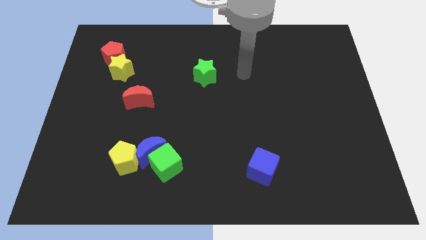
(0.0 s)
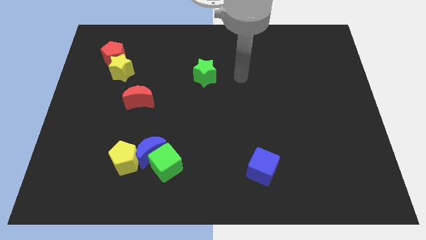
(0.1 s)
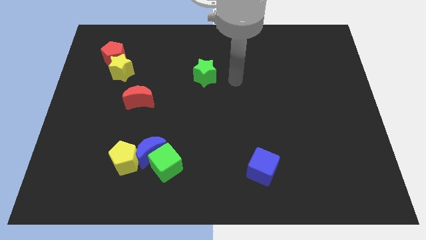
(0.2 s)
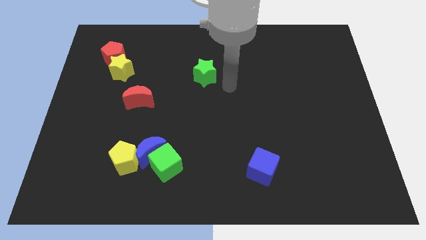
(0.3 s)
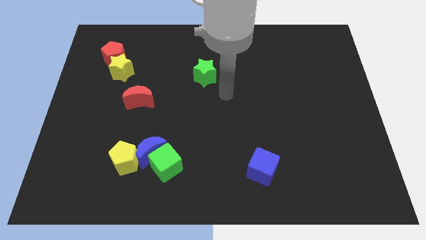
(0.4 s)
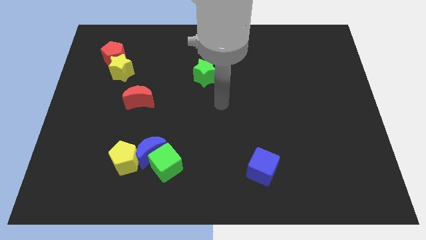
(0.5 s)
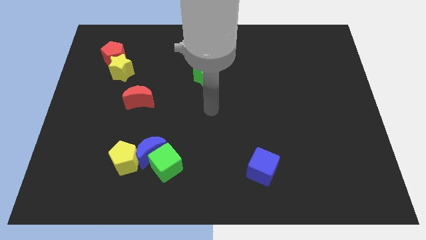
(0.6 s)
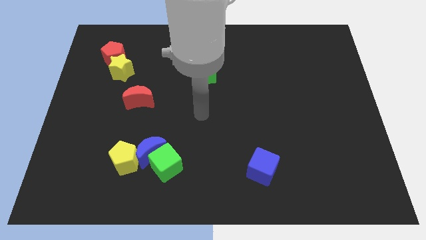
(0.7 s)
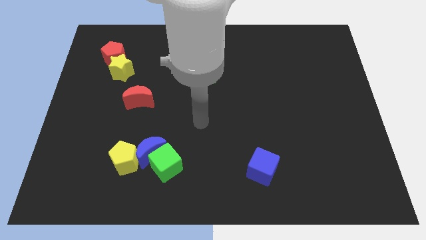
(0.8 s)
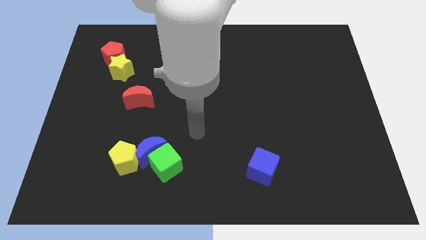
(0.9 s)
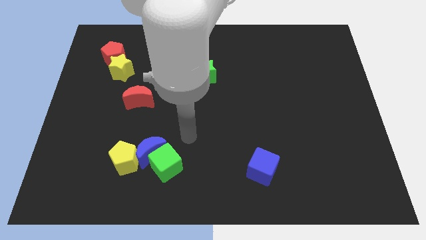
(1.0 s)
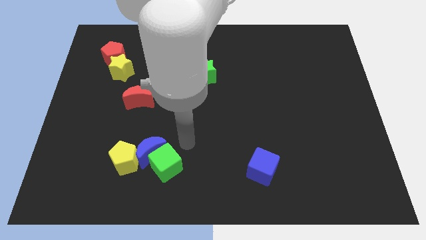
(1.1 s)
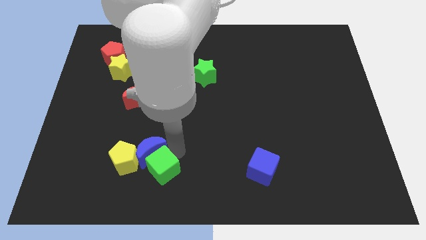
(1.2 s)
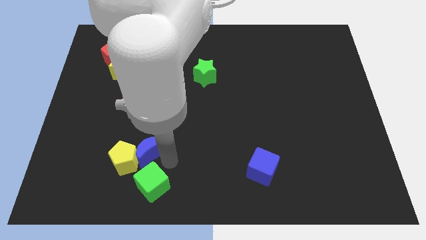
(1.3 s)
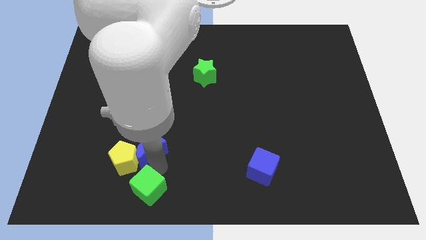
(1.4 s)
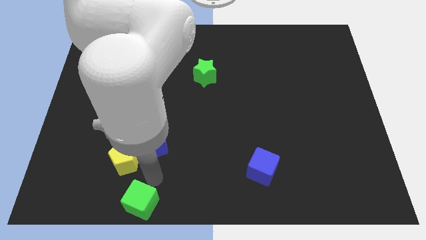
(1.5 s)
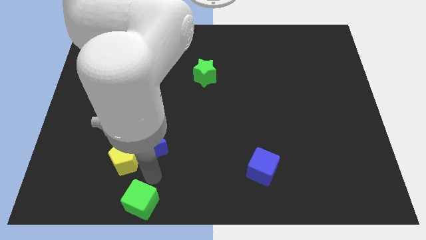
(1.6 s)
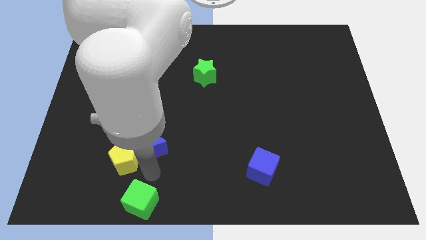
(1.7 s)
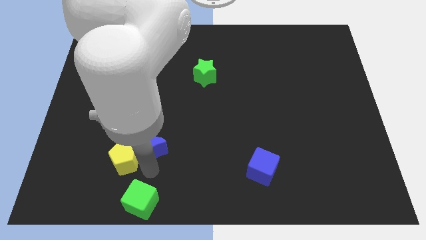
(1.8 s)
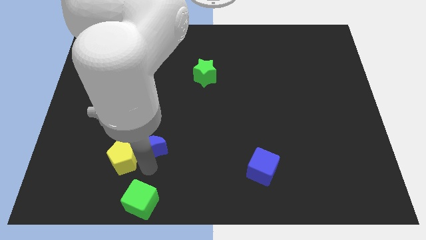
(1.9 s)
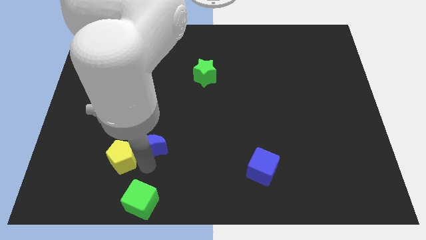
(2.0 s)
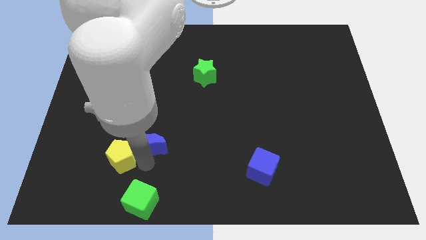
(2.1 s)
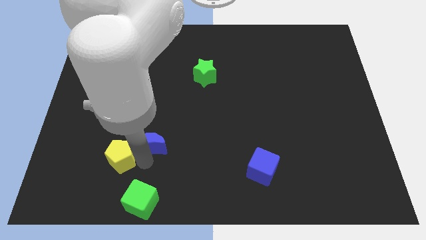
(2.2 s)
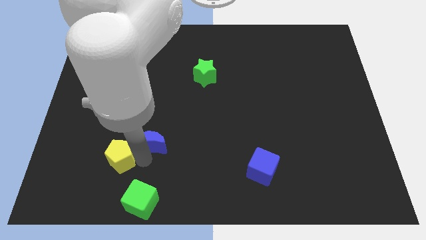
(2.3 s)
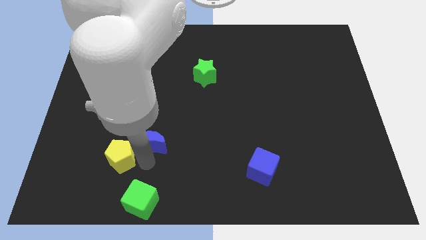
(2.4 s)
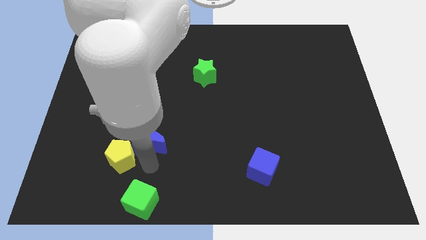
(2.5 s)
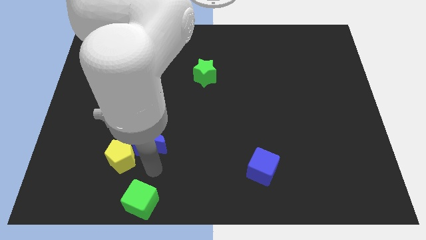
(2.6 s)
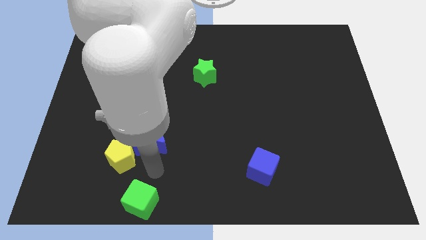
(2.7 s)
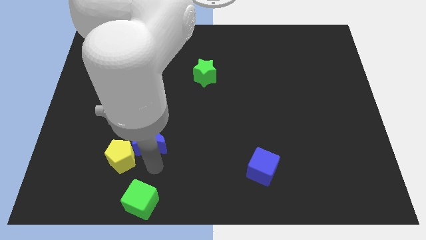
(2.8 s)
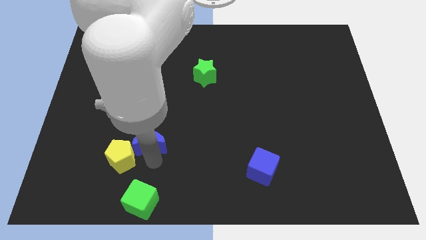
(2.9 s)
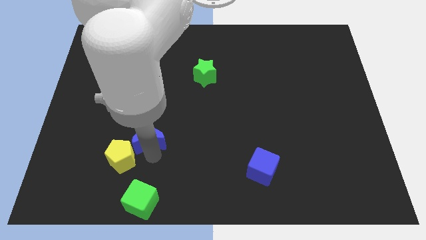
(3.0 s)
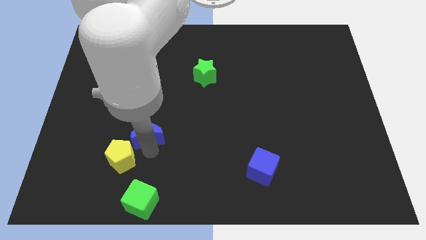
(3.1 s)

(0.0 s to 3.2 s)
pull the blue moon apart from the green cube and yellow pentagon

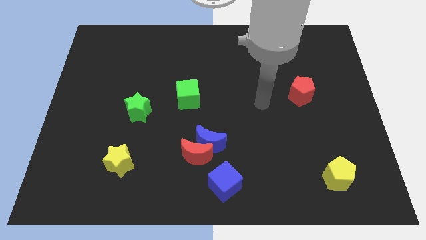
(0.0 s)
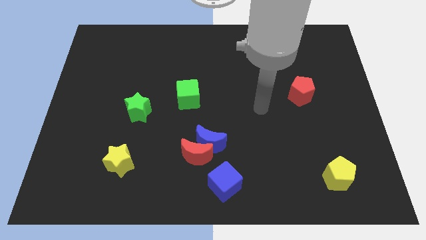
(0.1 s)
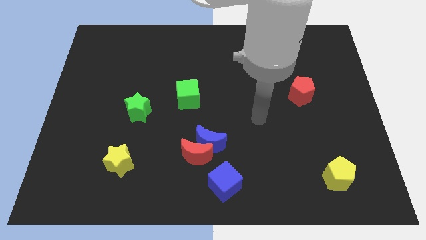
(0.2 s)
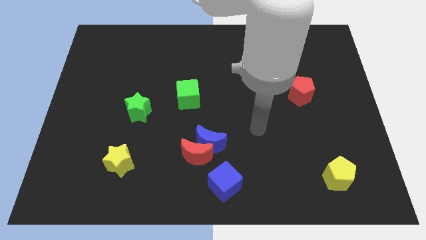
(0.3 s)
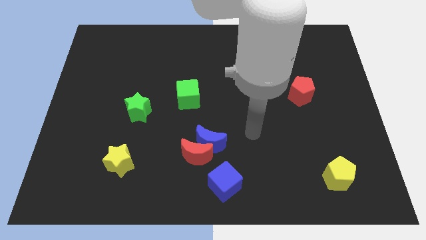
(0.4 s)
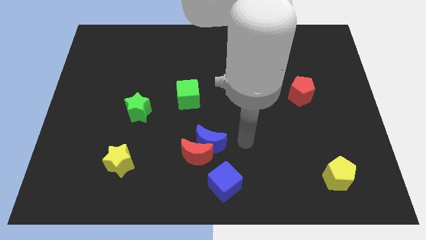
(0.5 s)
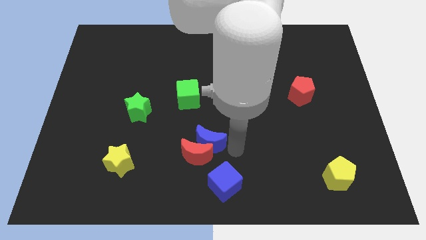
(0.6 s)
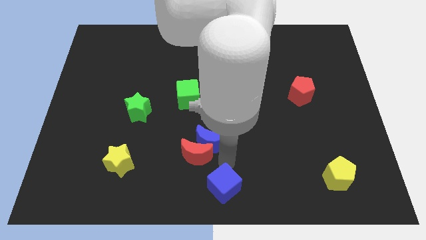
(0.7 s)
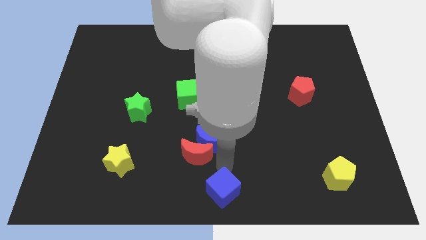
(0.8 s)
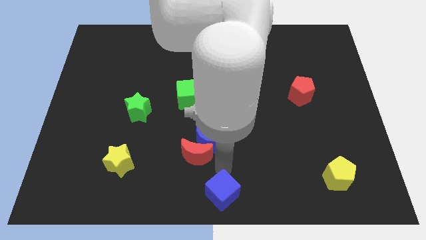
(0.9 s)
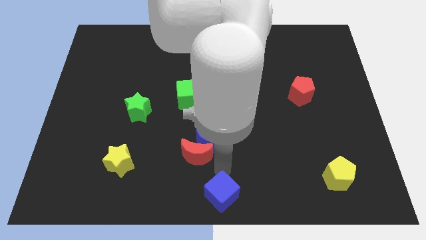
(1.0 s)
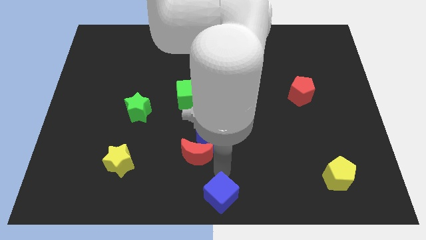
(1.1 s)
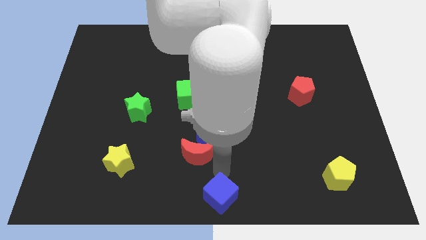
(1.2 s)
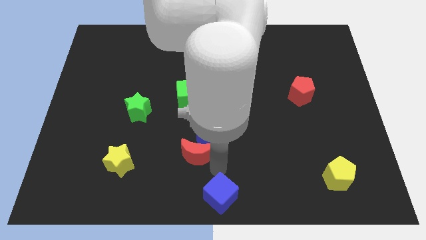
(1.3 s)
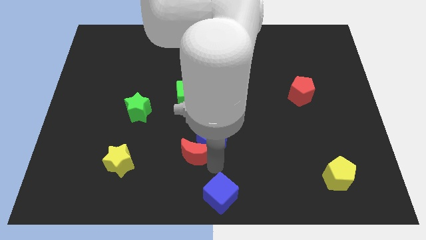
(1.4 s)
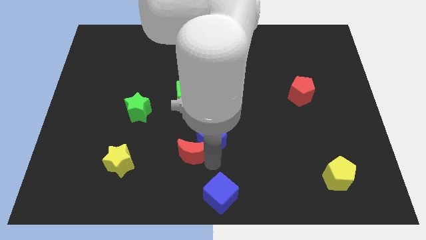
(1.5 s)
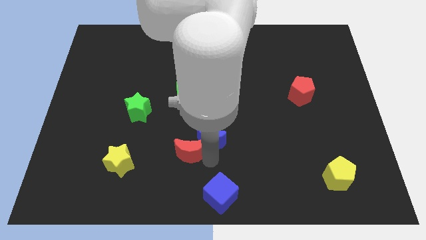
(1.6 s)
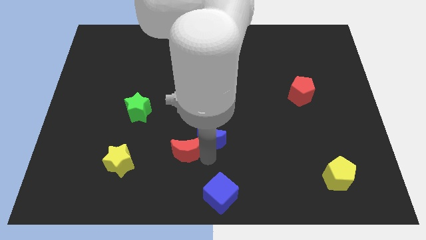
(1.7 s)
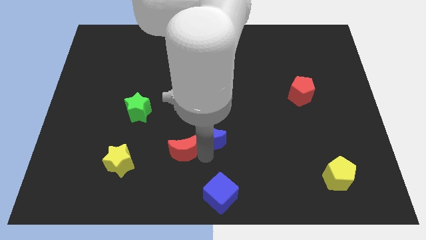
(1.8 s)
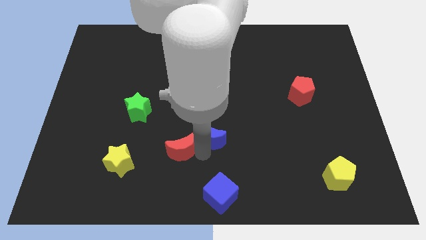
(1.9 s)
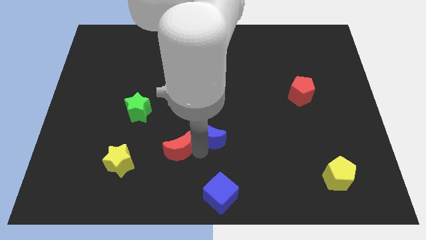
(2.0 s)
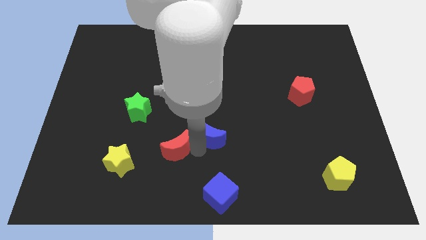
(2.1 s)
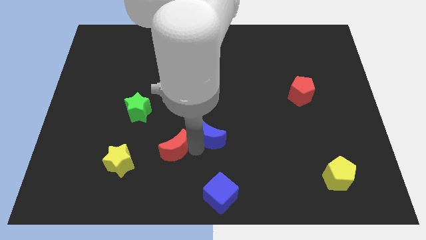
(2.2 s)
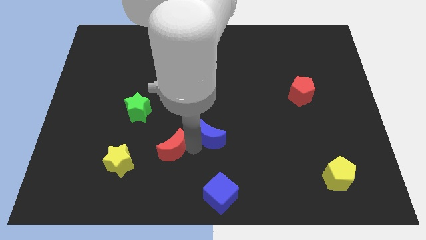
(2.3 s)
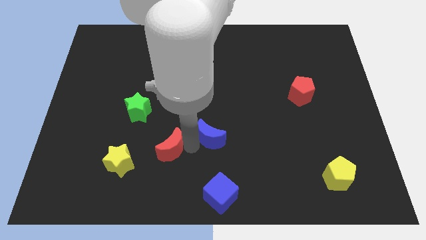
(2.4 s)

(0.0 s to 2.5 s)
pull the red moon apart from the blue moon and blue cube

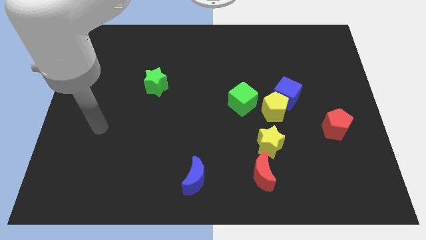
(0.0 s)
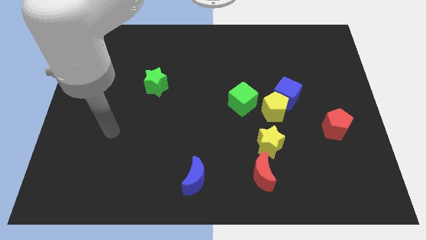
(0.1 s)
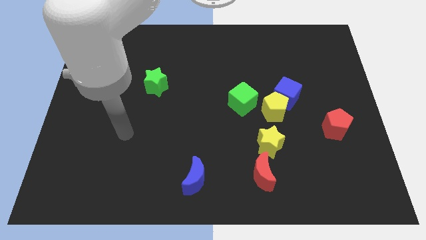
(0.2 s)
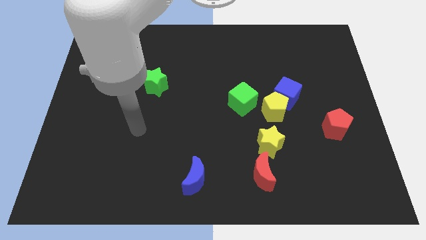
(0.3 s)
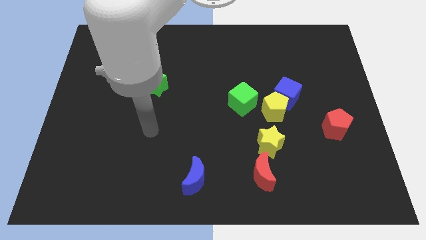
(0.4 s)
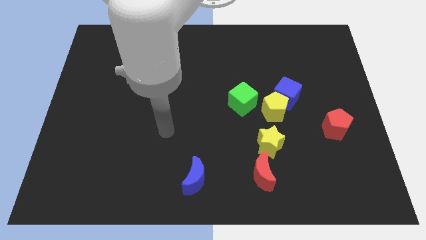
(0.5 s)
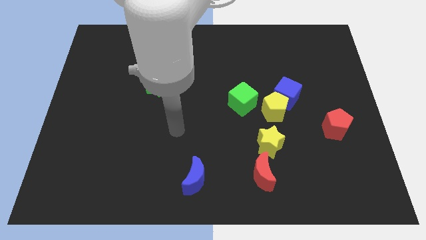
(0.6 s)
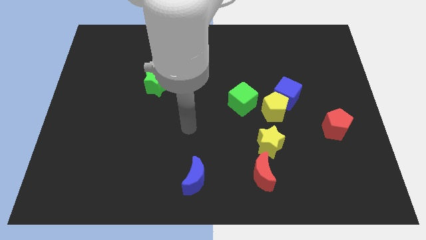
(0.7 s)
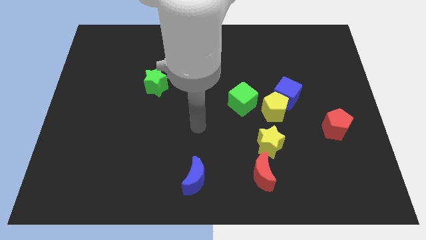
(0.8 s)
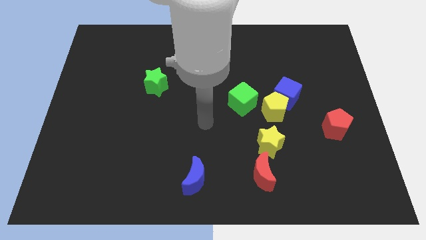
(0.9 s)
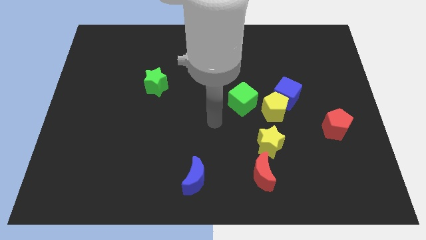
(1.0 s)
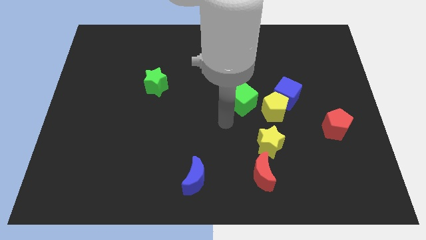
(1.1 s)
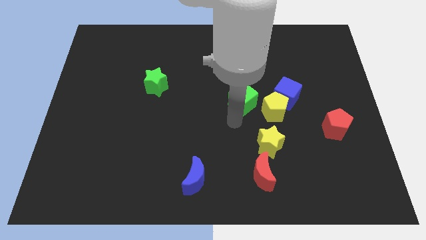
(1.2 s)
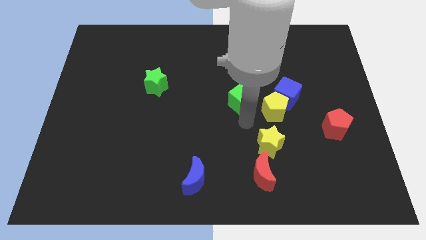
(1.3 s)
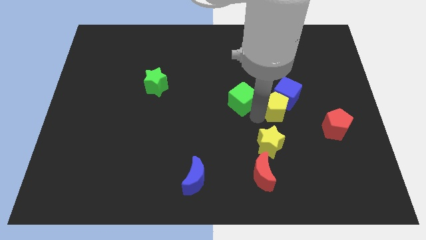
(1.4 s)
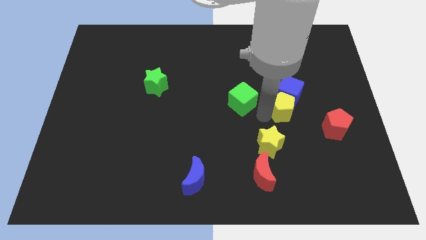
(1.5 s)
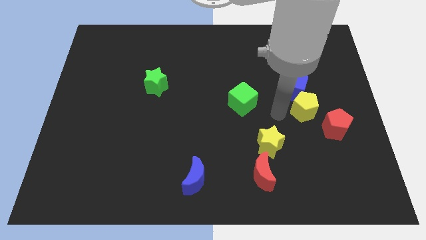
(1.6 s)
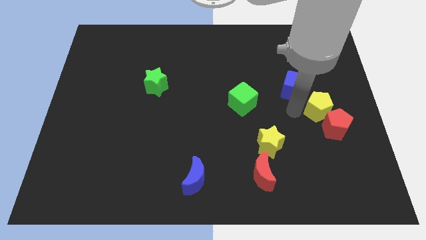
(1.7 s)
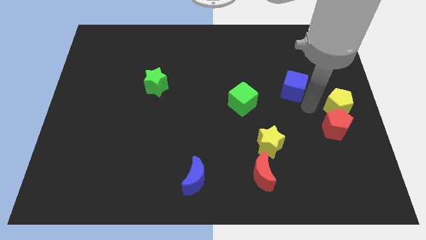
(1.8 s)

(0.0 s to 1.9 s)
pull the blue cube apart from the yellow pentagon

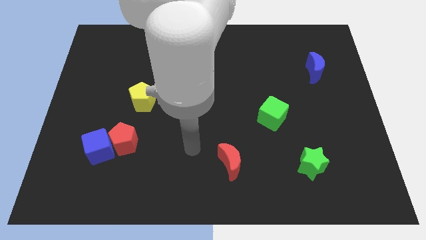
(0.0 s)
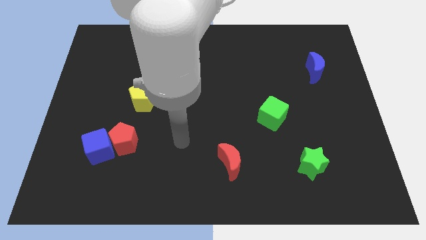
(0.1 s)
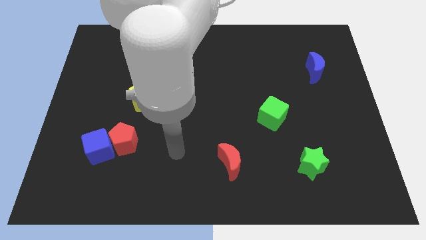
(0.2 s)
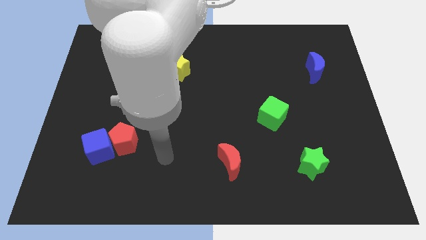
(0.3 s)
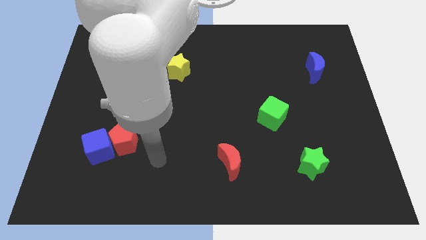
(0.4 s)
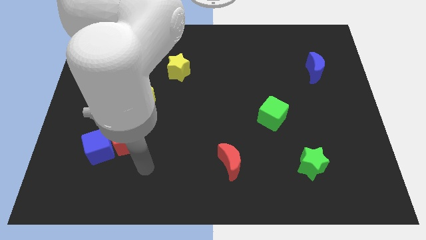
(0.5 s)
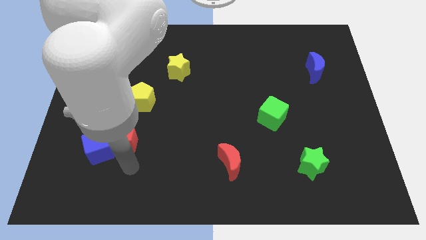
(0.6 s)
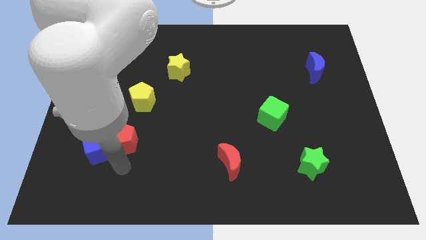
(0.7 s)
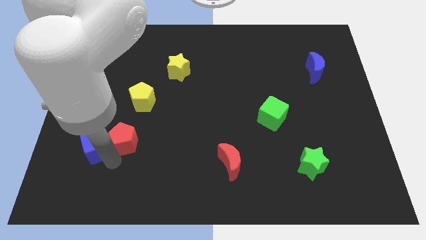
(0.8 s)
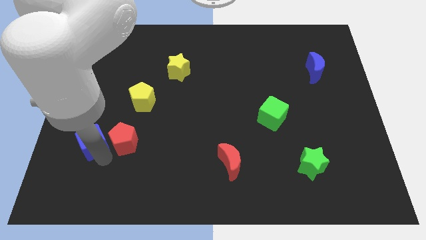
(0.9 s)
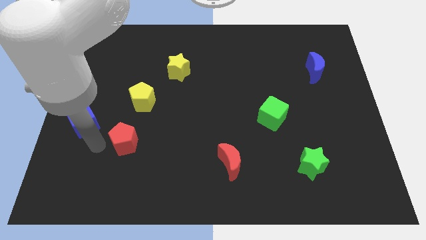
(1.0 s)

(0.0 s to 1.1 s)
move the red pentagon away from the blue cube

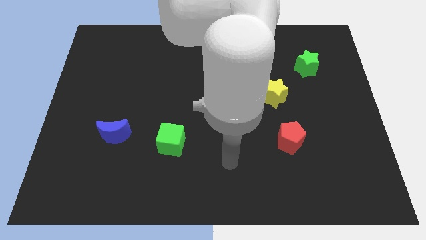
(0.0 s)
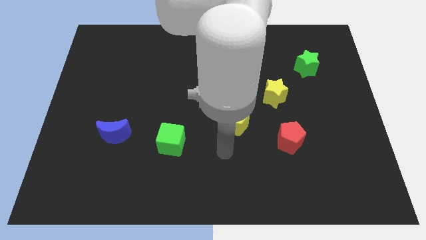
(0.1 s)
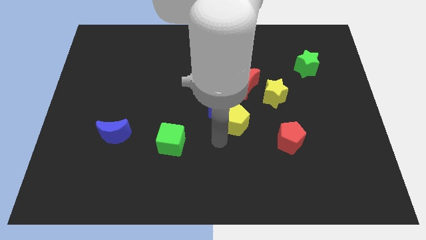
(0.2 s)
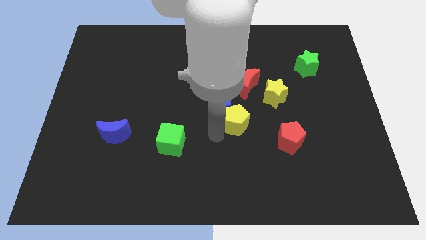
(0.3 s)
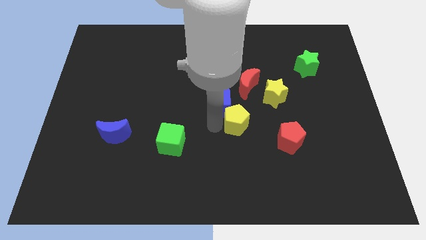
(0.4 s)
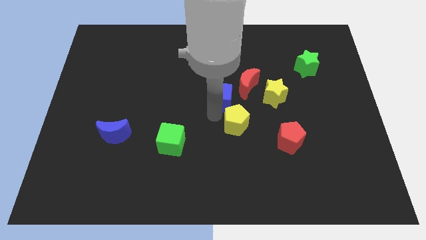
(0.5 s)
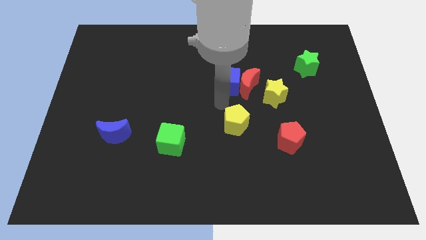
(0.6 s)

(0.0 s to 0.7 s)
pull the yellow pentagon apart from the blue cube
